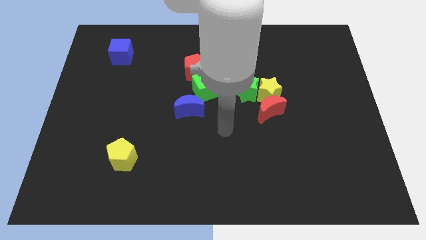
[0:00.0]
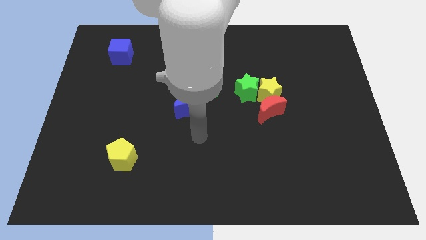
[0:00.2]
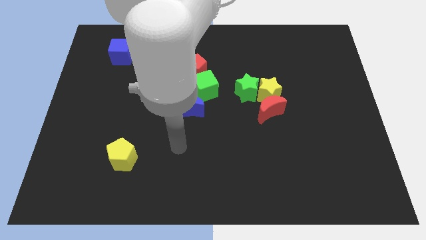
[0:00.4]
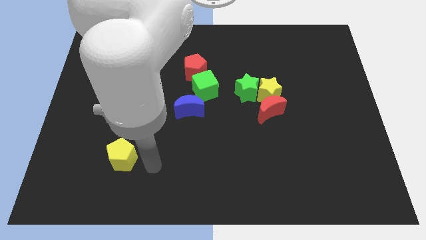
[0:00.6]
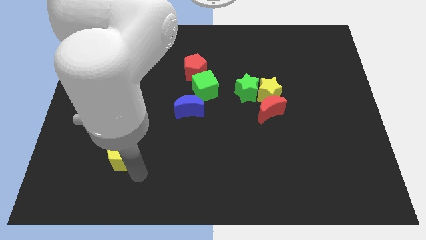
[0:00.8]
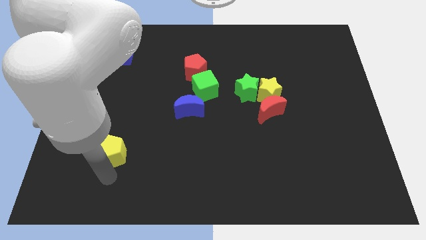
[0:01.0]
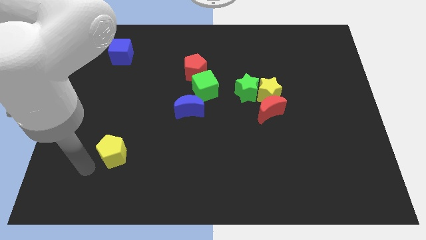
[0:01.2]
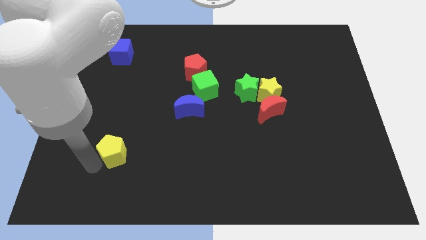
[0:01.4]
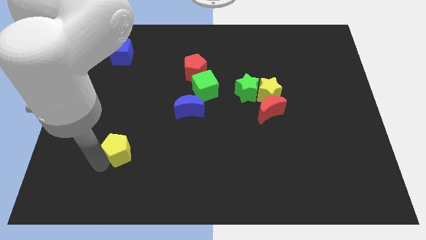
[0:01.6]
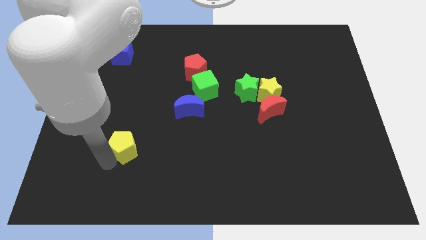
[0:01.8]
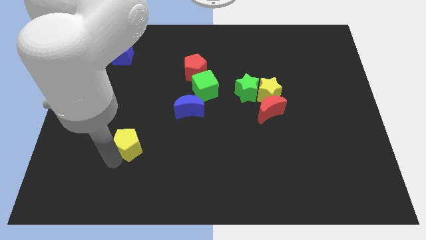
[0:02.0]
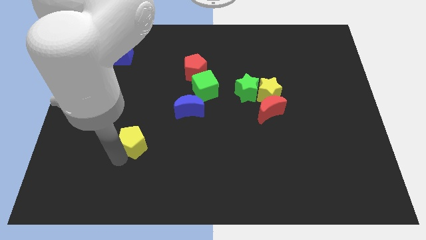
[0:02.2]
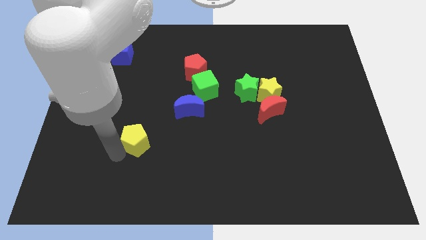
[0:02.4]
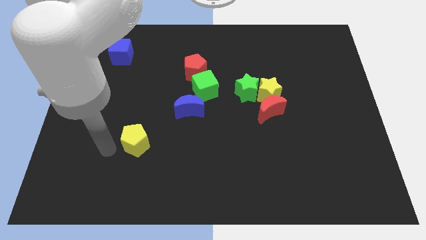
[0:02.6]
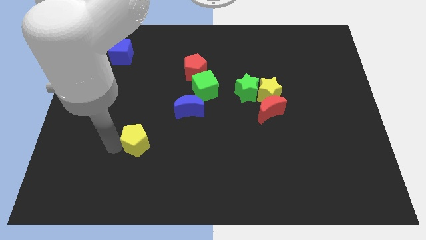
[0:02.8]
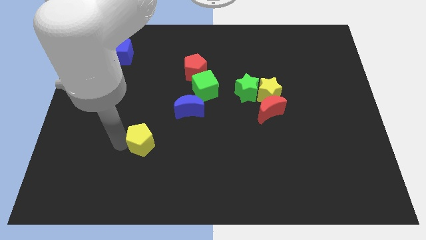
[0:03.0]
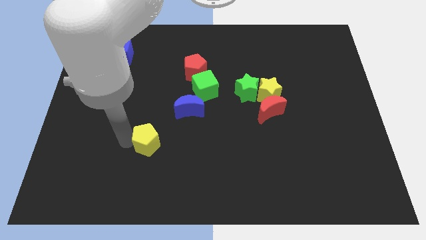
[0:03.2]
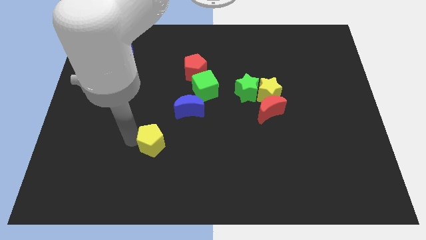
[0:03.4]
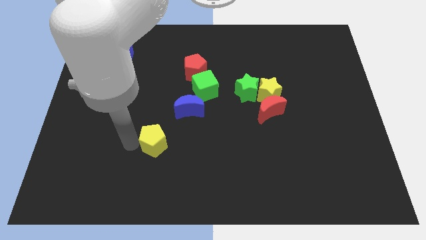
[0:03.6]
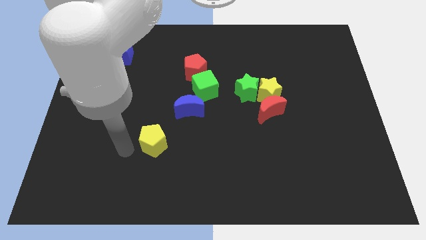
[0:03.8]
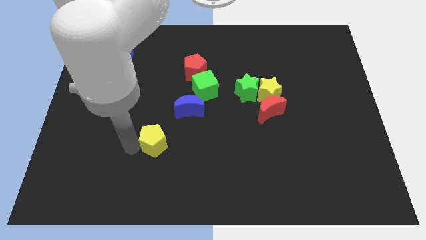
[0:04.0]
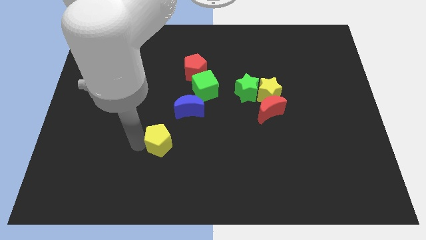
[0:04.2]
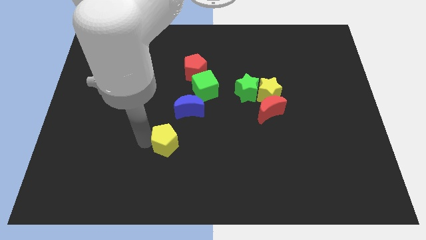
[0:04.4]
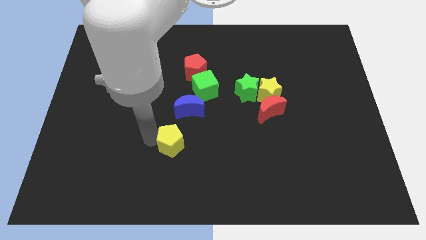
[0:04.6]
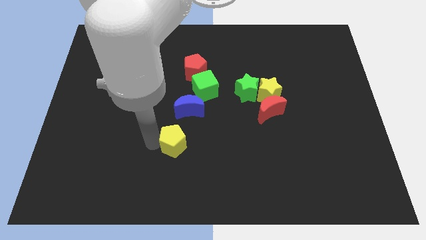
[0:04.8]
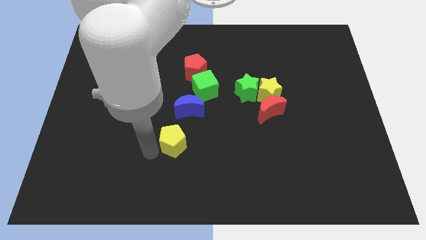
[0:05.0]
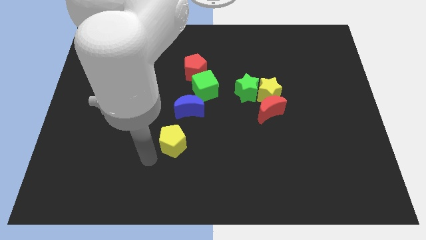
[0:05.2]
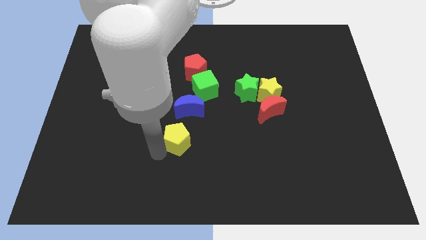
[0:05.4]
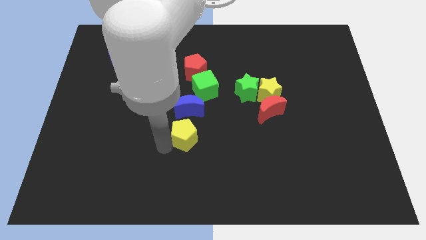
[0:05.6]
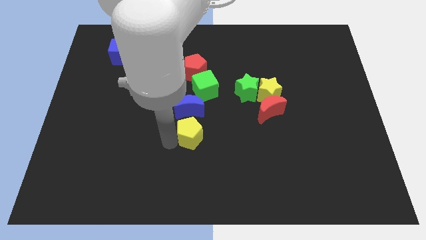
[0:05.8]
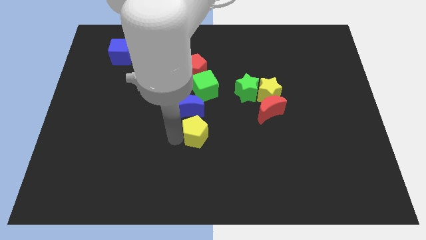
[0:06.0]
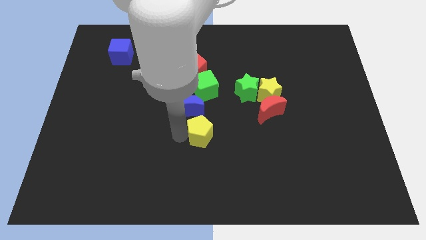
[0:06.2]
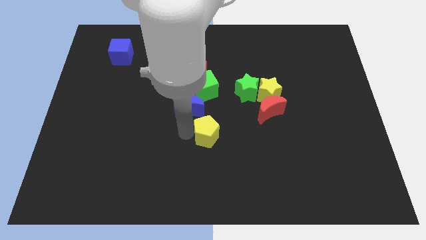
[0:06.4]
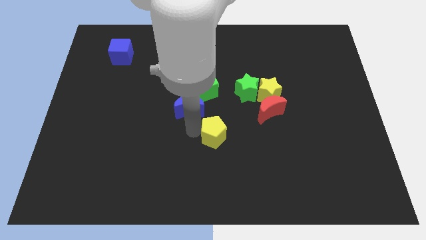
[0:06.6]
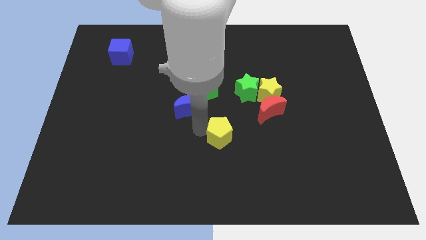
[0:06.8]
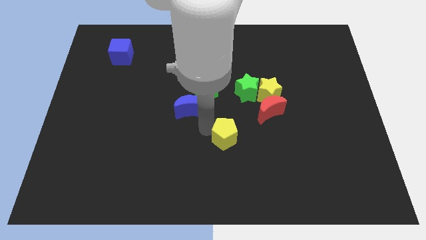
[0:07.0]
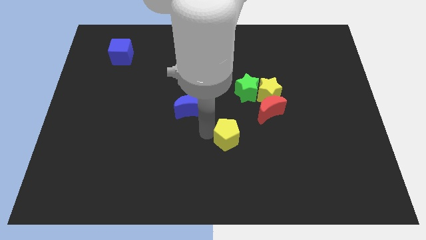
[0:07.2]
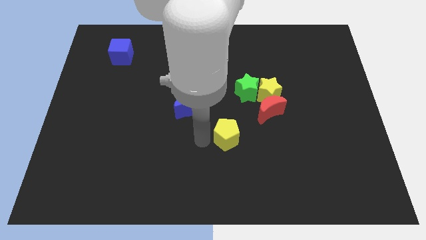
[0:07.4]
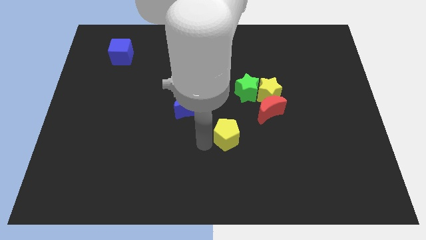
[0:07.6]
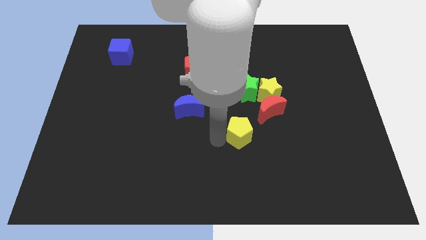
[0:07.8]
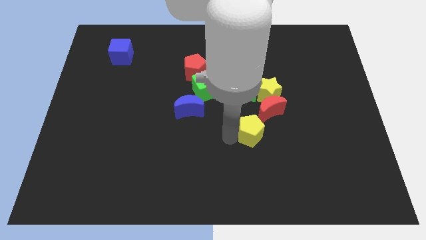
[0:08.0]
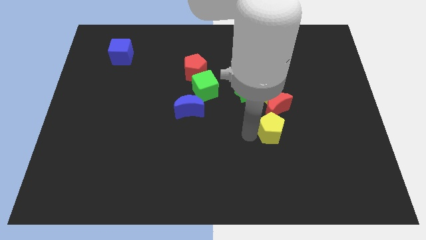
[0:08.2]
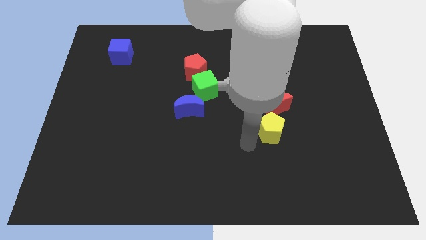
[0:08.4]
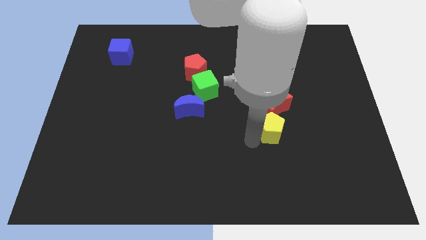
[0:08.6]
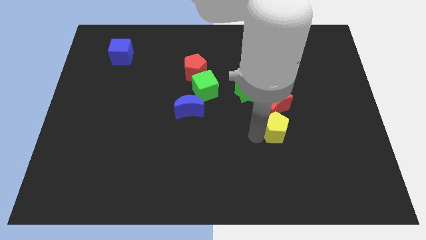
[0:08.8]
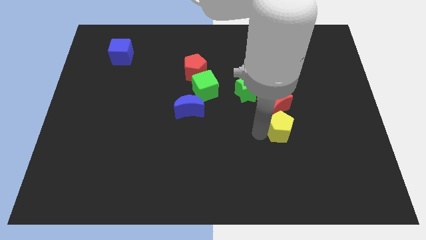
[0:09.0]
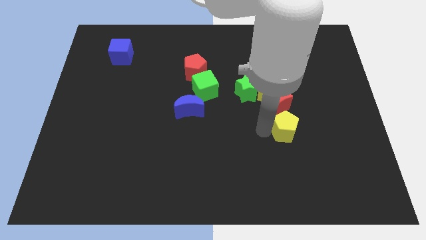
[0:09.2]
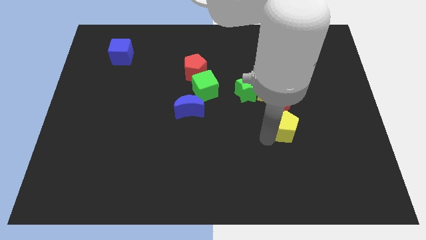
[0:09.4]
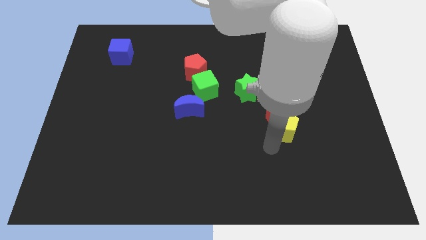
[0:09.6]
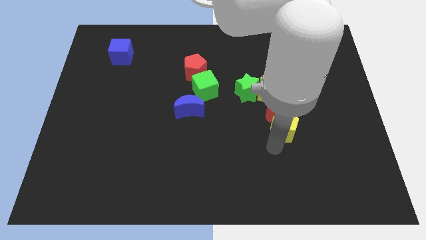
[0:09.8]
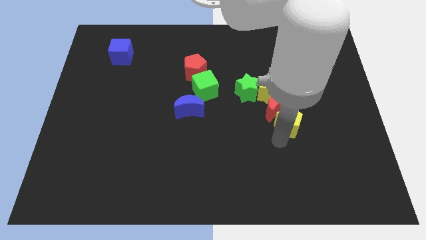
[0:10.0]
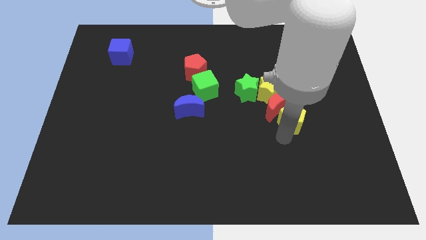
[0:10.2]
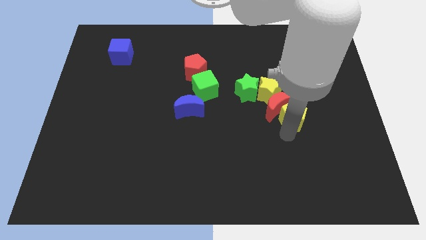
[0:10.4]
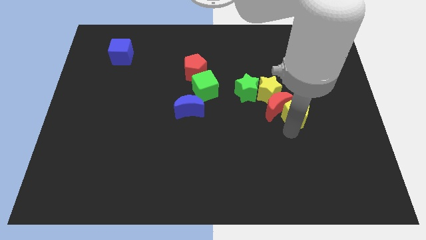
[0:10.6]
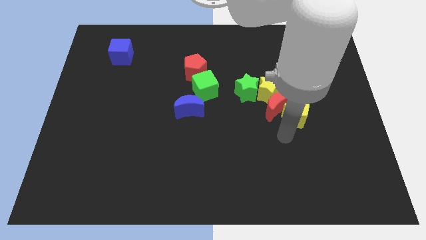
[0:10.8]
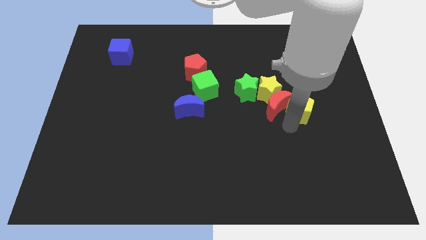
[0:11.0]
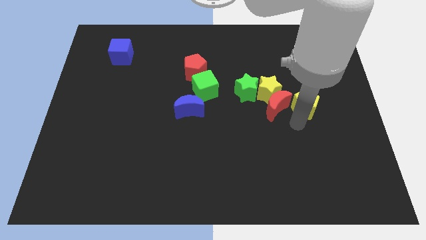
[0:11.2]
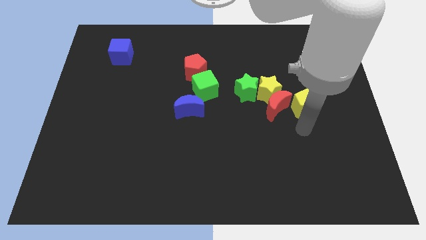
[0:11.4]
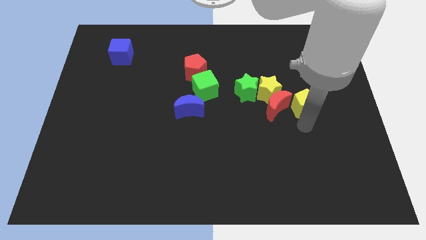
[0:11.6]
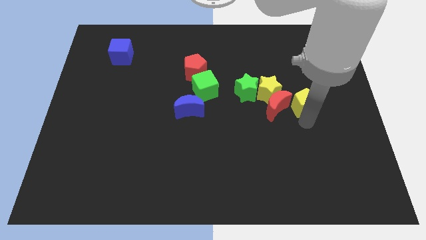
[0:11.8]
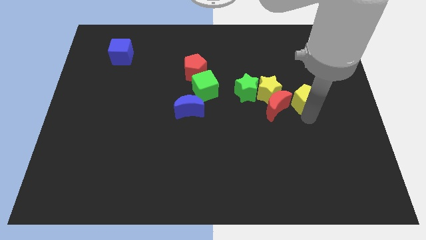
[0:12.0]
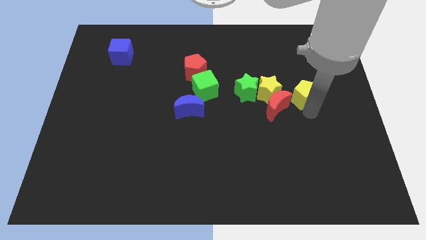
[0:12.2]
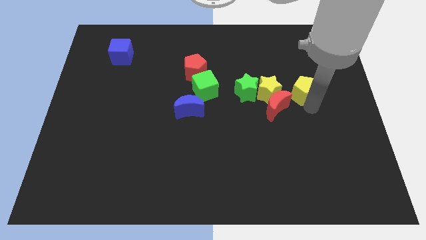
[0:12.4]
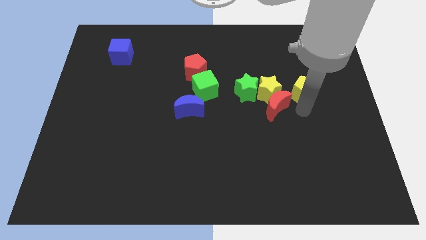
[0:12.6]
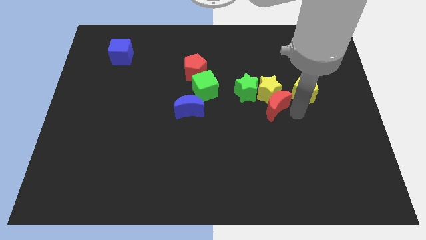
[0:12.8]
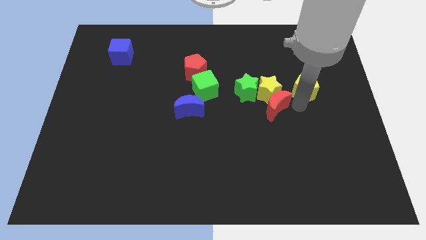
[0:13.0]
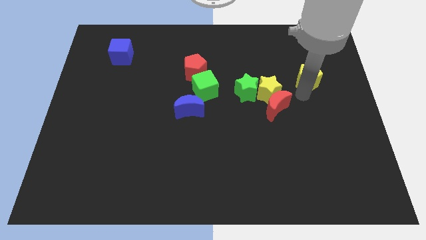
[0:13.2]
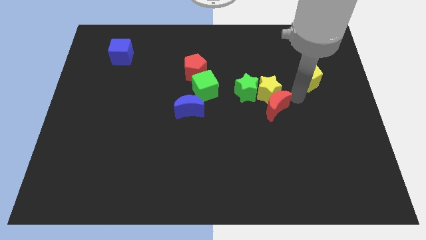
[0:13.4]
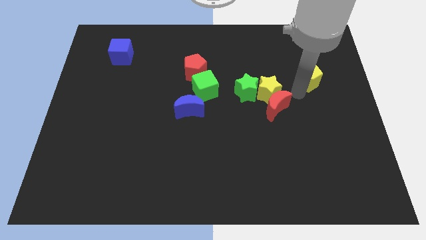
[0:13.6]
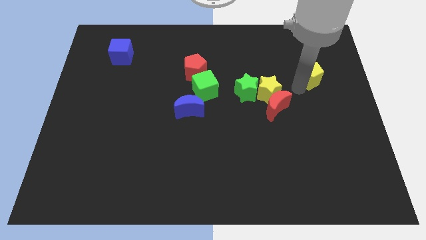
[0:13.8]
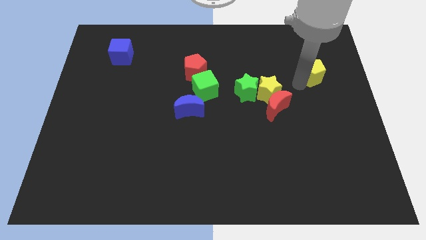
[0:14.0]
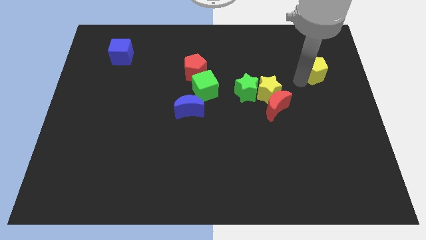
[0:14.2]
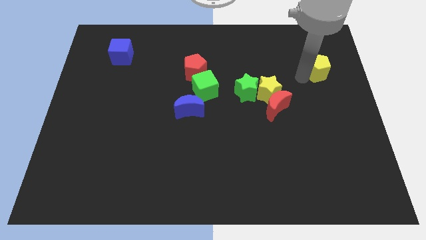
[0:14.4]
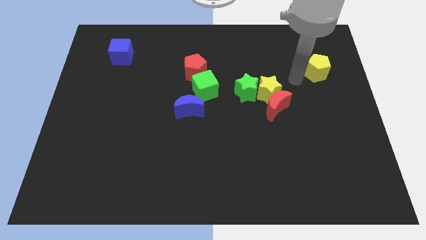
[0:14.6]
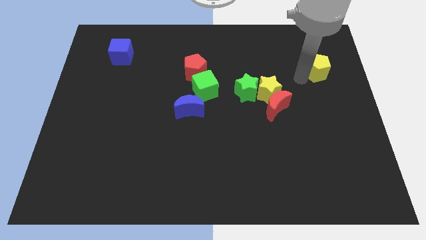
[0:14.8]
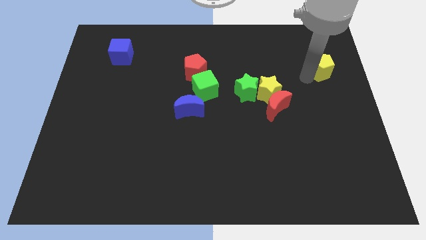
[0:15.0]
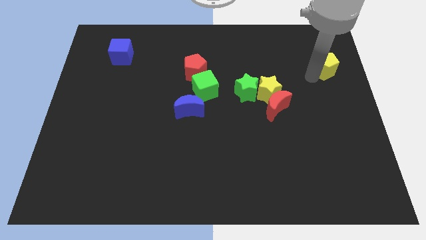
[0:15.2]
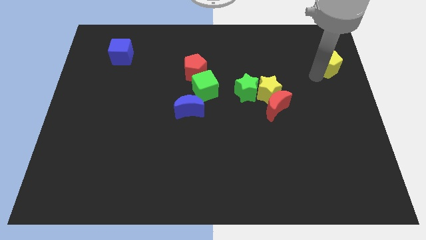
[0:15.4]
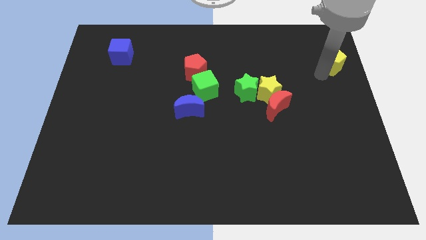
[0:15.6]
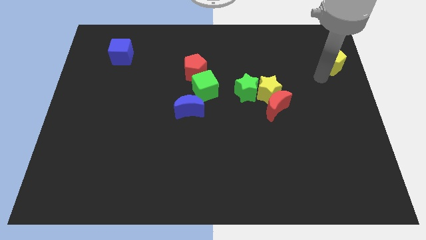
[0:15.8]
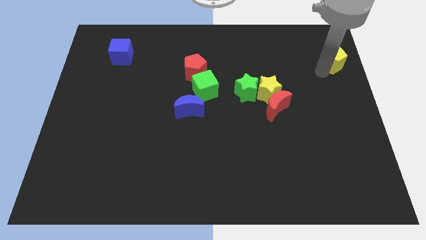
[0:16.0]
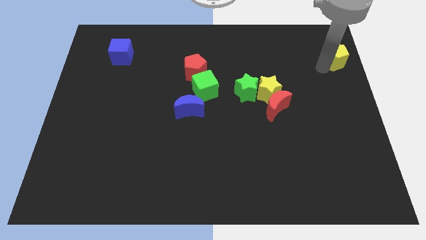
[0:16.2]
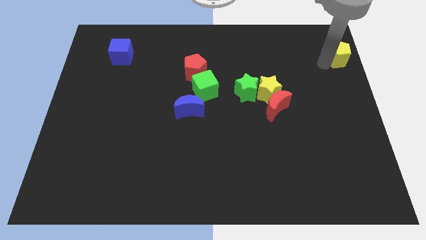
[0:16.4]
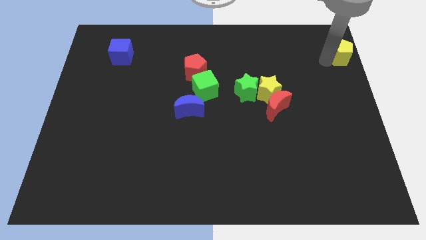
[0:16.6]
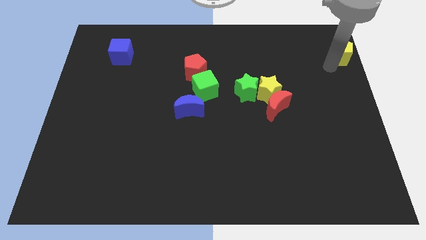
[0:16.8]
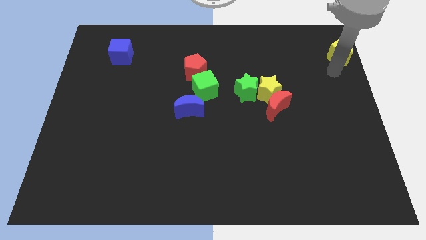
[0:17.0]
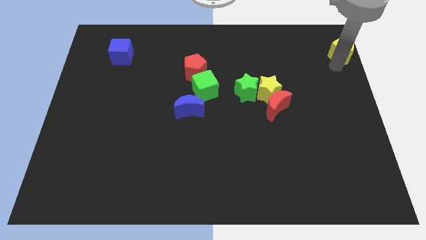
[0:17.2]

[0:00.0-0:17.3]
slide the yellow pentagon to the upper right corner
